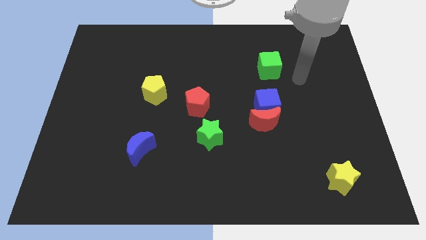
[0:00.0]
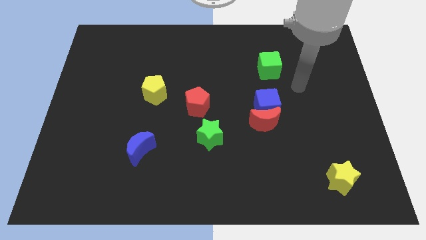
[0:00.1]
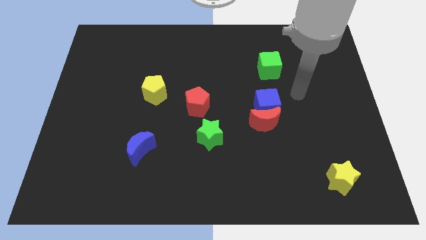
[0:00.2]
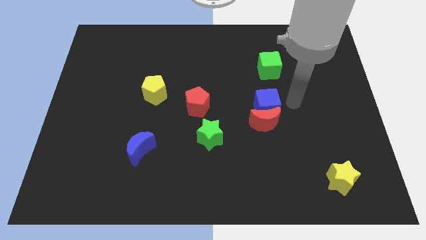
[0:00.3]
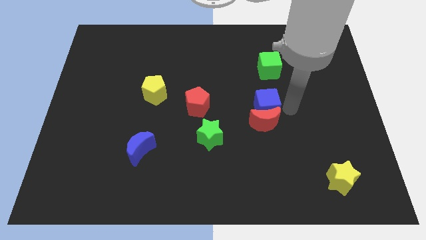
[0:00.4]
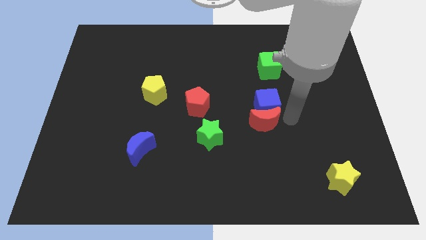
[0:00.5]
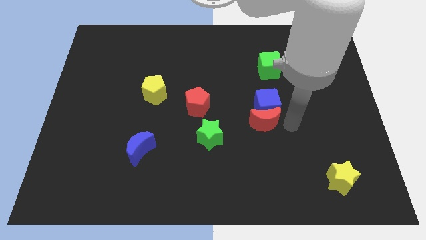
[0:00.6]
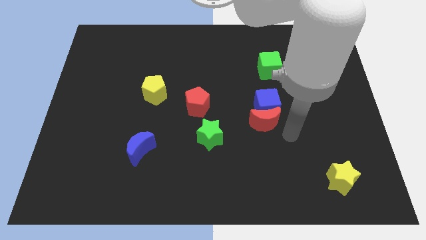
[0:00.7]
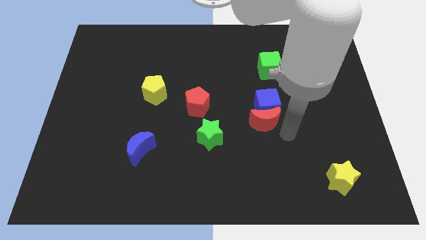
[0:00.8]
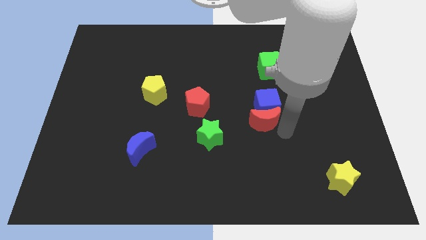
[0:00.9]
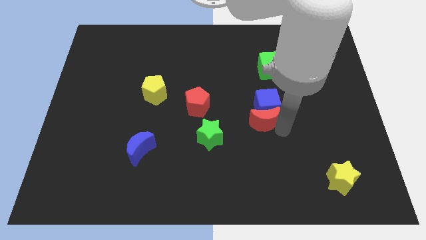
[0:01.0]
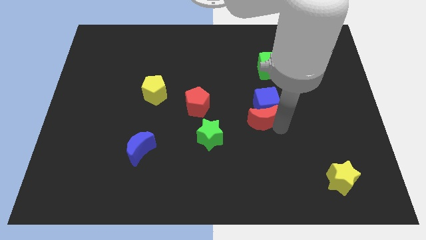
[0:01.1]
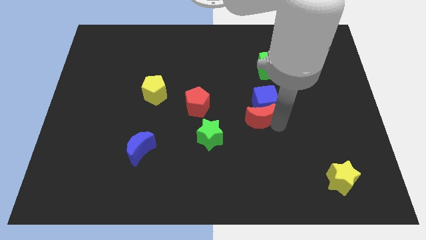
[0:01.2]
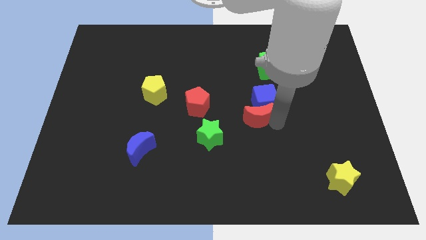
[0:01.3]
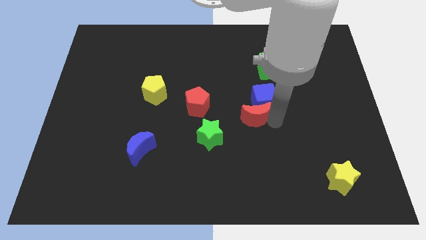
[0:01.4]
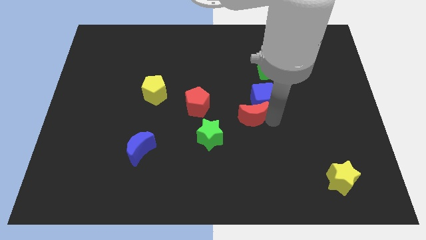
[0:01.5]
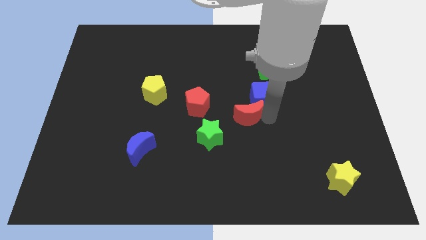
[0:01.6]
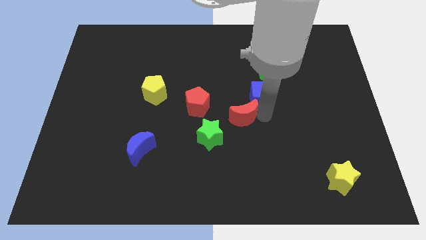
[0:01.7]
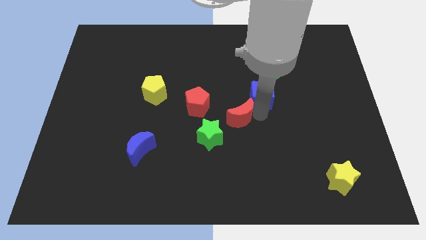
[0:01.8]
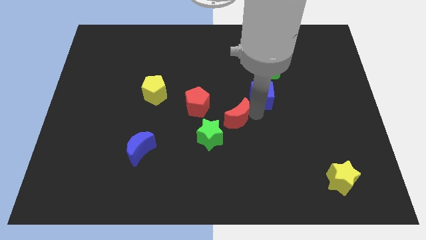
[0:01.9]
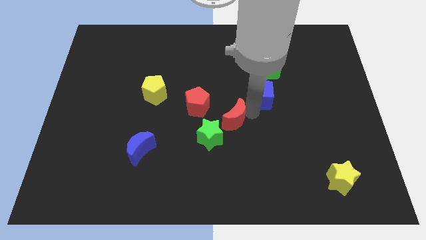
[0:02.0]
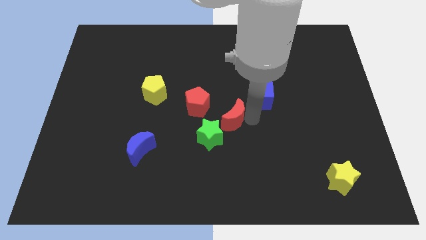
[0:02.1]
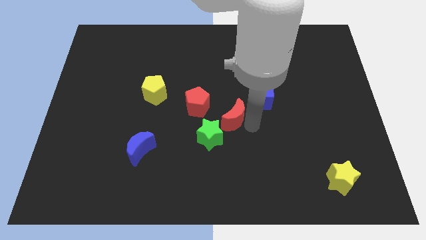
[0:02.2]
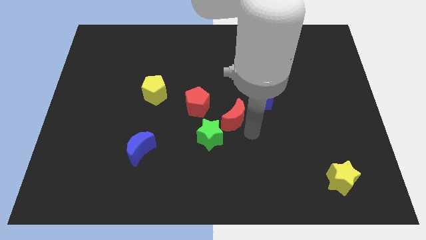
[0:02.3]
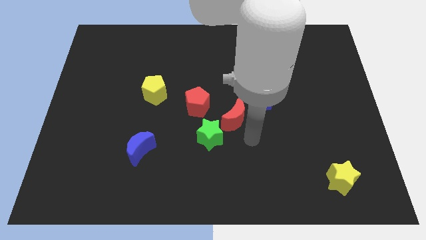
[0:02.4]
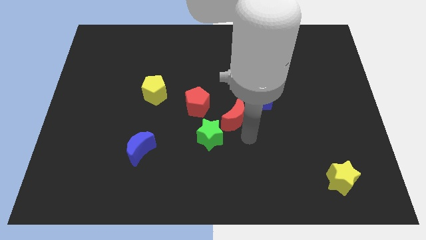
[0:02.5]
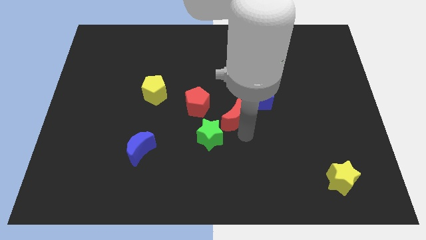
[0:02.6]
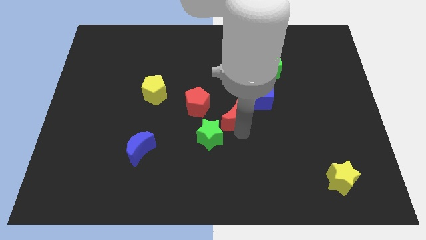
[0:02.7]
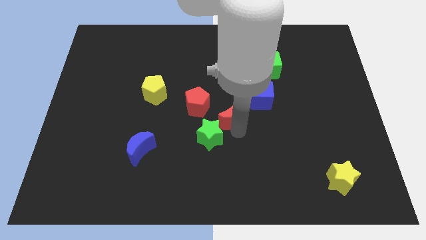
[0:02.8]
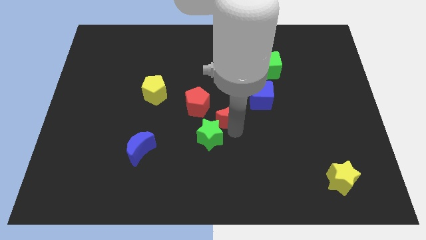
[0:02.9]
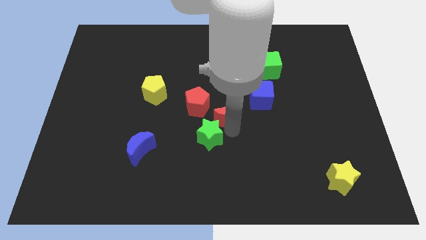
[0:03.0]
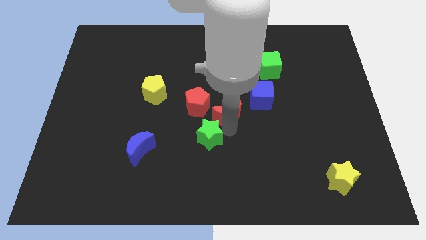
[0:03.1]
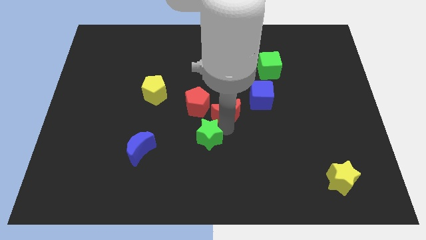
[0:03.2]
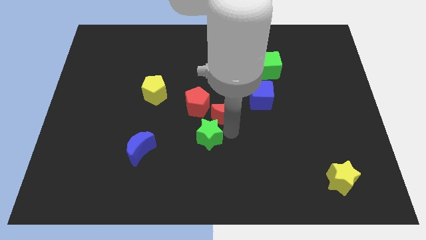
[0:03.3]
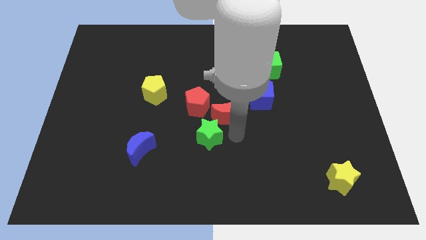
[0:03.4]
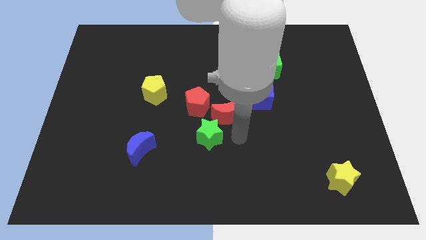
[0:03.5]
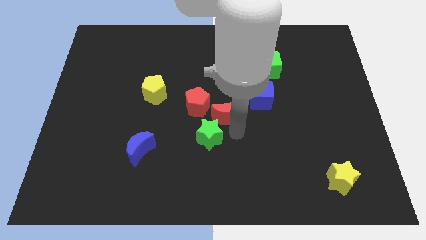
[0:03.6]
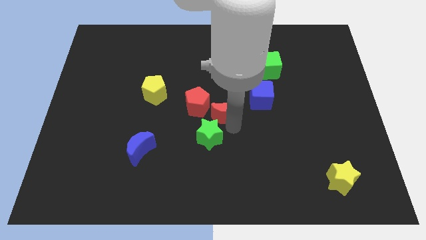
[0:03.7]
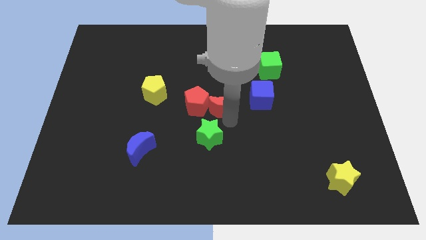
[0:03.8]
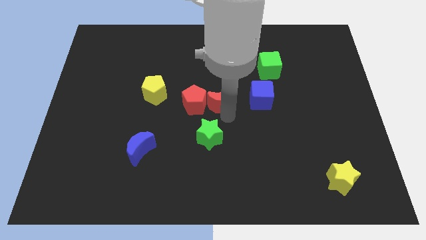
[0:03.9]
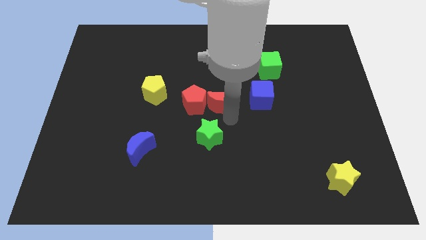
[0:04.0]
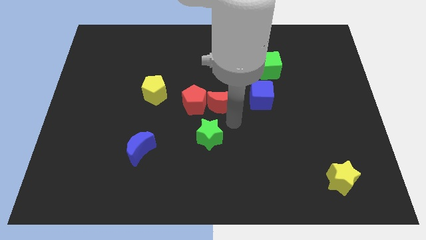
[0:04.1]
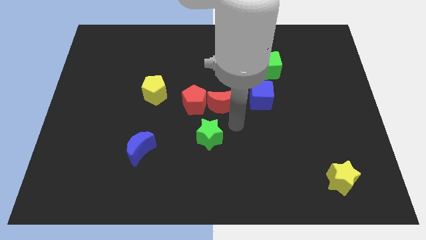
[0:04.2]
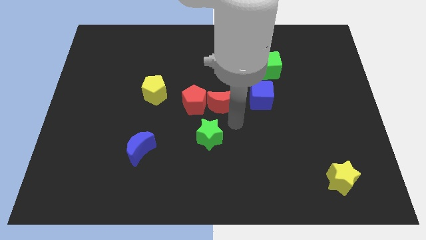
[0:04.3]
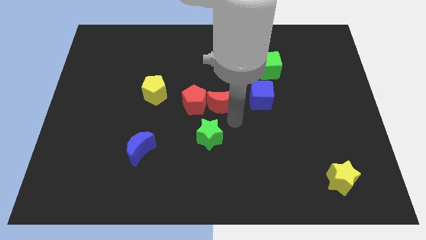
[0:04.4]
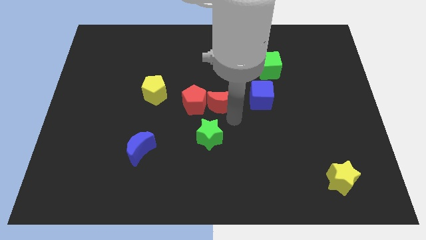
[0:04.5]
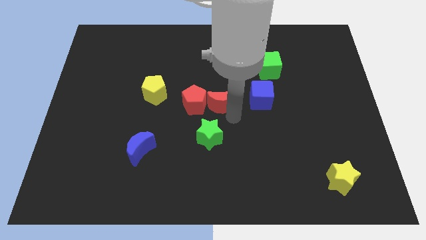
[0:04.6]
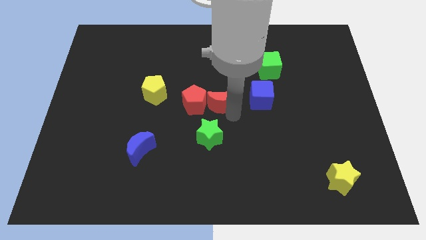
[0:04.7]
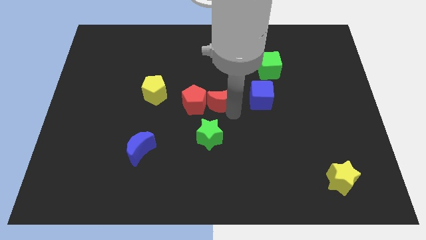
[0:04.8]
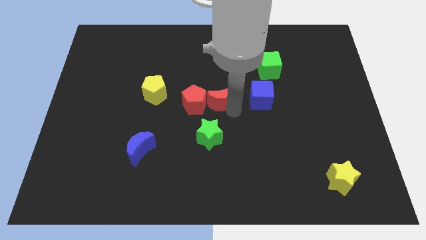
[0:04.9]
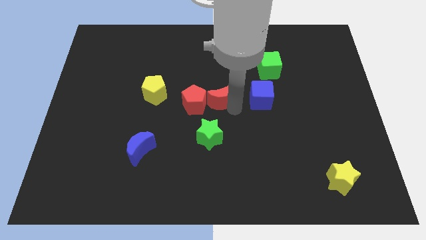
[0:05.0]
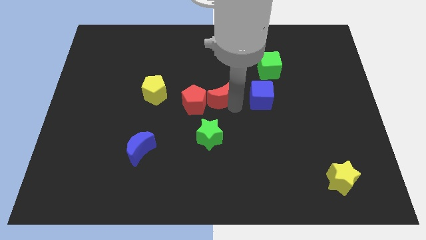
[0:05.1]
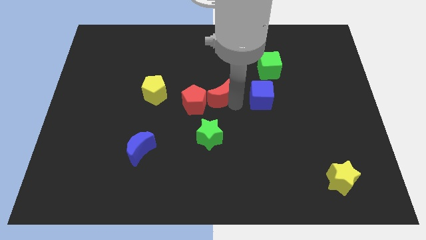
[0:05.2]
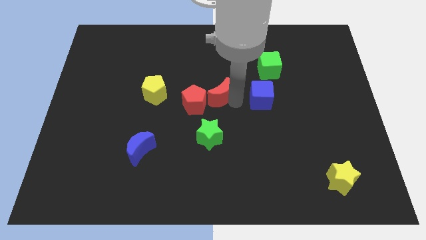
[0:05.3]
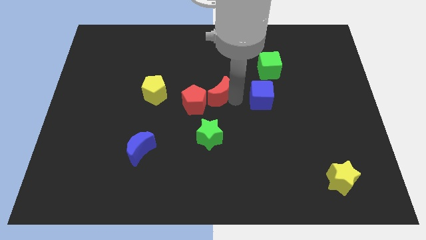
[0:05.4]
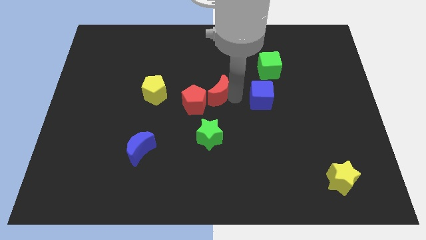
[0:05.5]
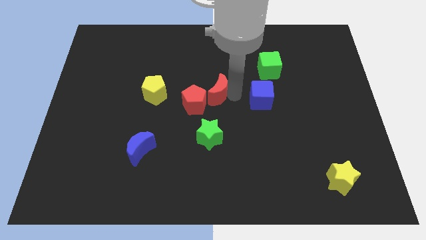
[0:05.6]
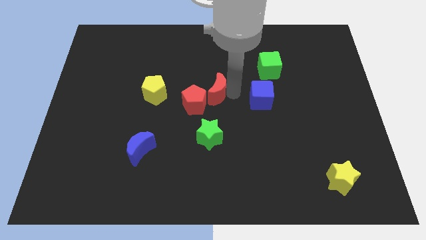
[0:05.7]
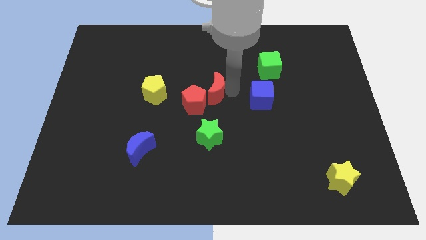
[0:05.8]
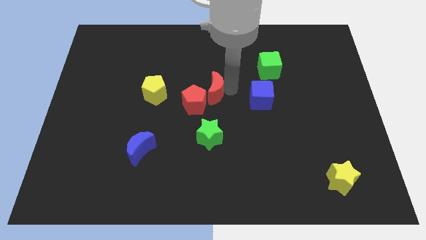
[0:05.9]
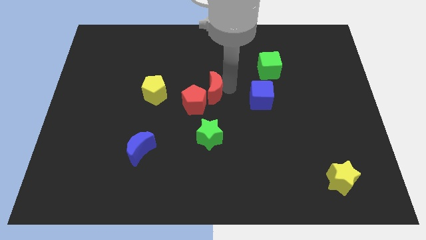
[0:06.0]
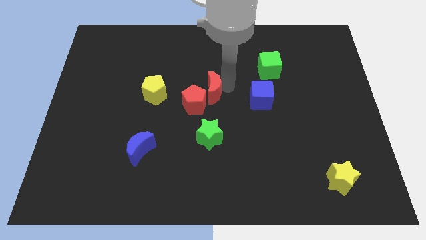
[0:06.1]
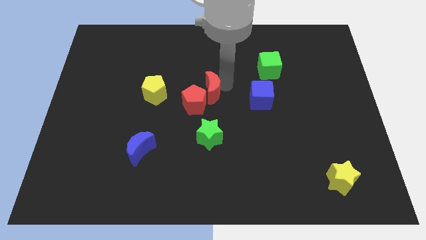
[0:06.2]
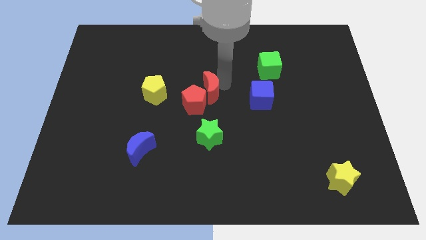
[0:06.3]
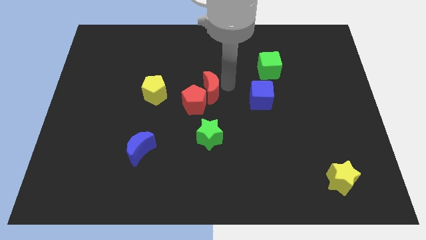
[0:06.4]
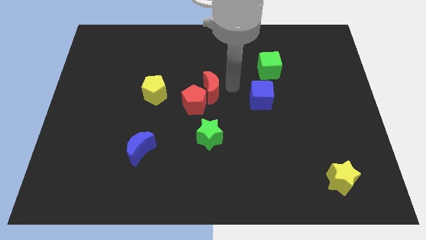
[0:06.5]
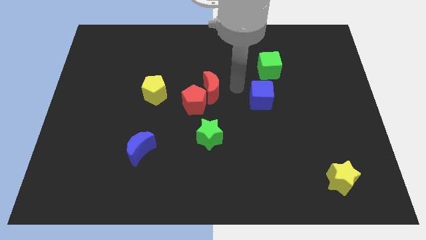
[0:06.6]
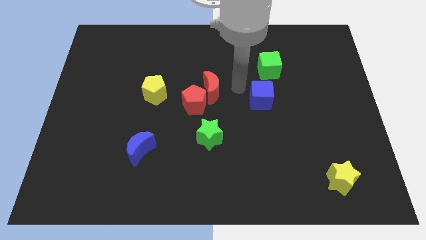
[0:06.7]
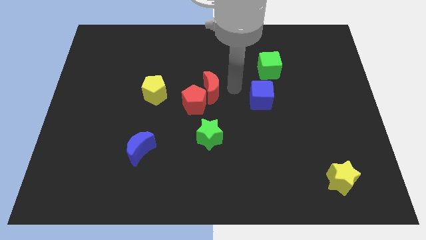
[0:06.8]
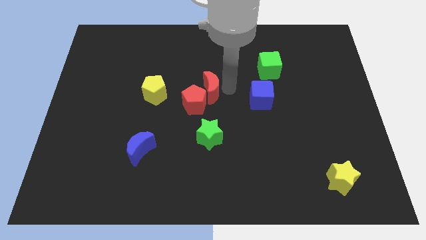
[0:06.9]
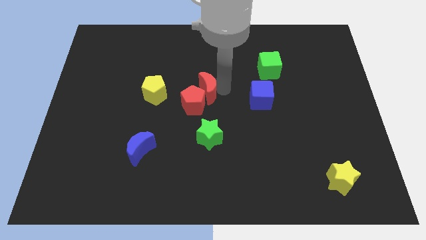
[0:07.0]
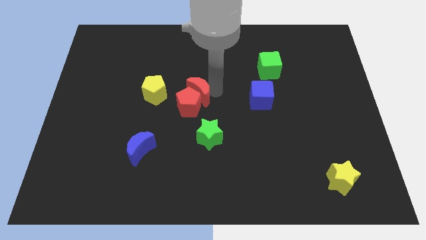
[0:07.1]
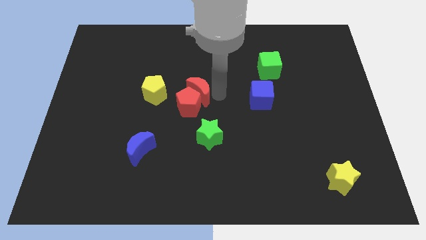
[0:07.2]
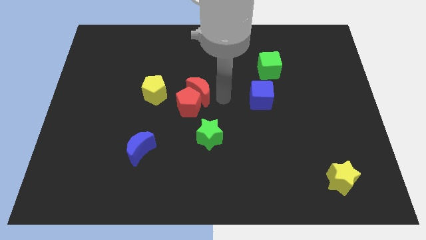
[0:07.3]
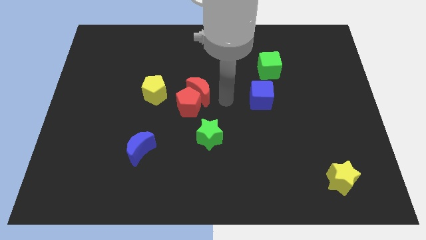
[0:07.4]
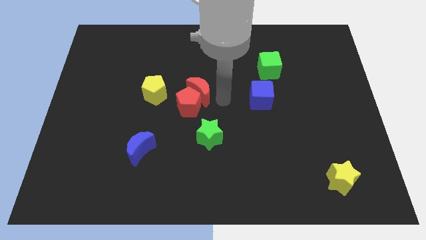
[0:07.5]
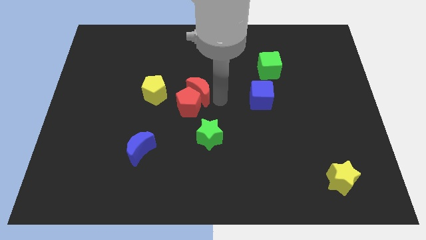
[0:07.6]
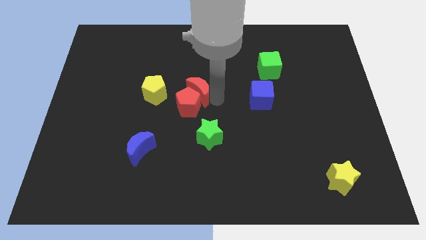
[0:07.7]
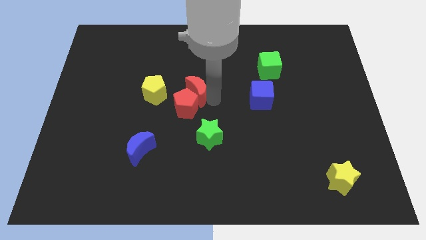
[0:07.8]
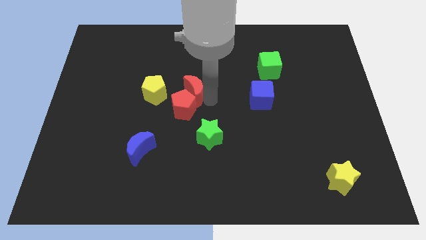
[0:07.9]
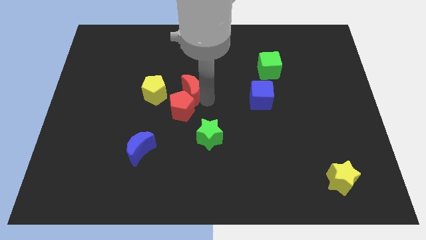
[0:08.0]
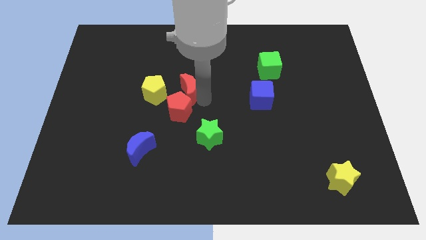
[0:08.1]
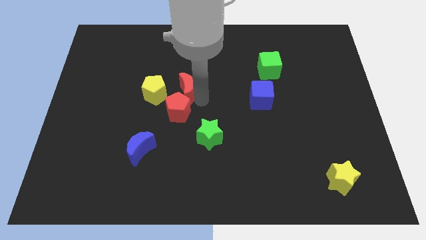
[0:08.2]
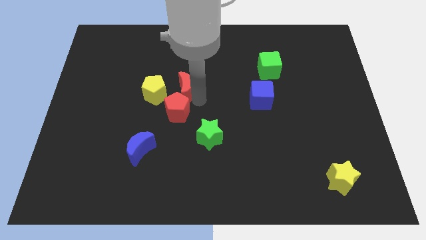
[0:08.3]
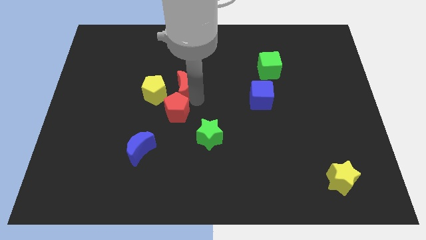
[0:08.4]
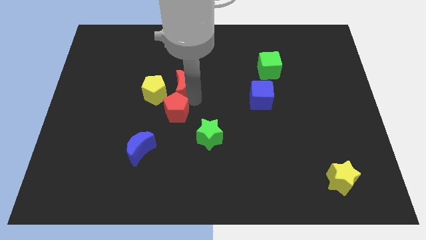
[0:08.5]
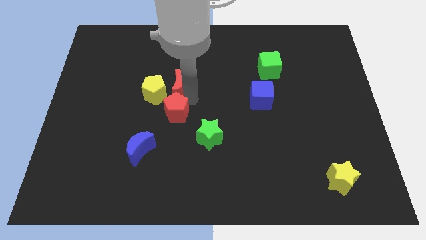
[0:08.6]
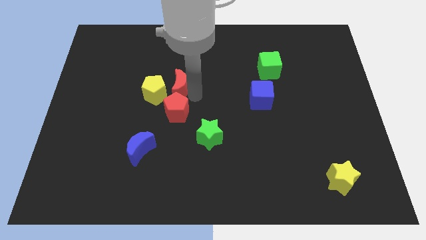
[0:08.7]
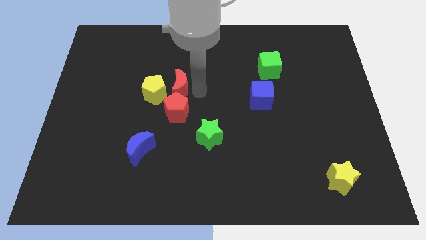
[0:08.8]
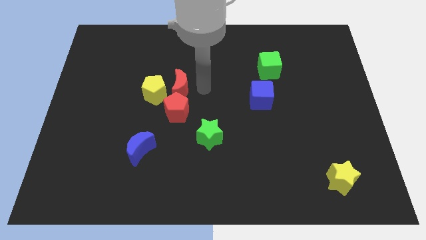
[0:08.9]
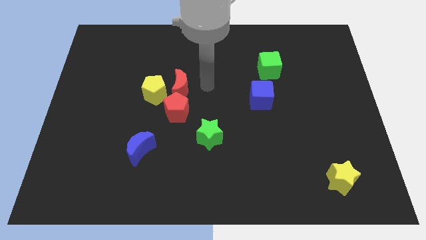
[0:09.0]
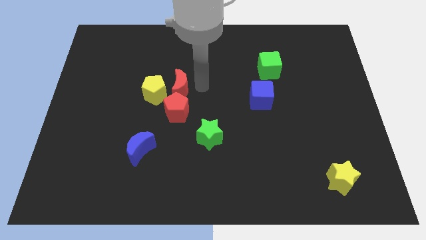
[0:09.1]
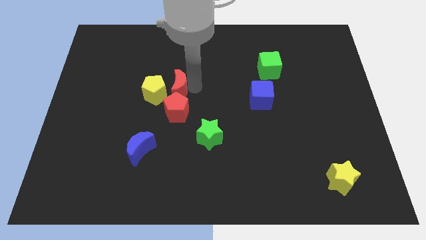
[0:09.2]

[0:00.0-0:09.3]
slide the red moon to the yellow pentagon
